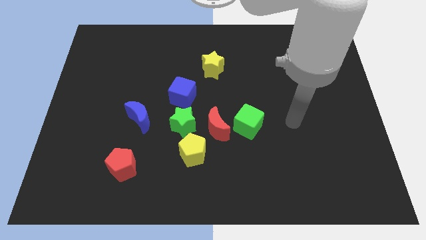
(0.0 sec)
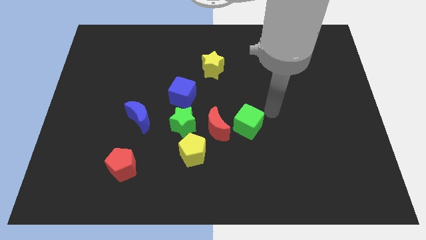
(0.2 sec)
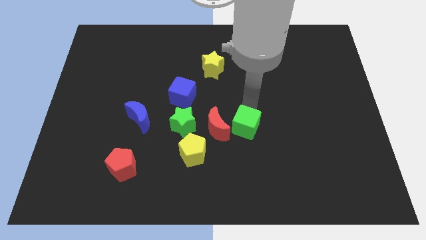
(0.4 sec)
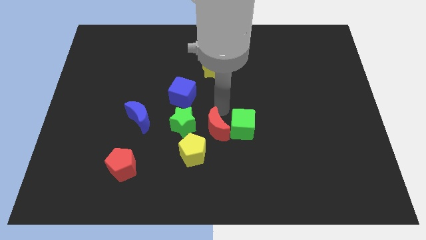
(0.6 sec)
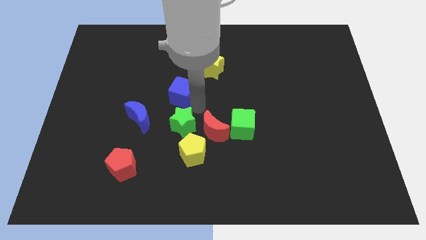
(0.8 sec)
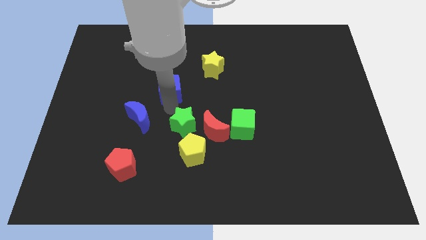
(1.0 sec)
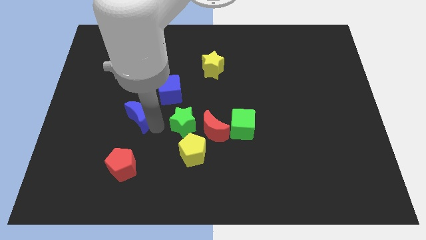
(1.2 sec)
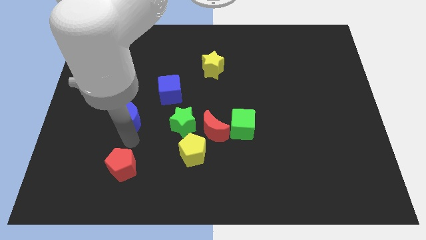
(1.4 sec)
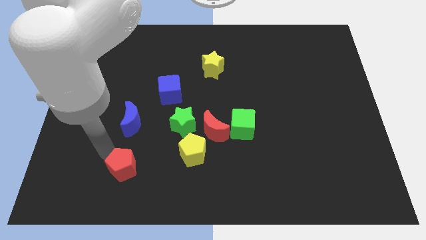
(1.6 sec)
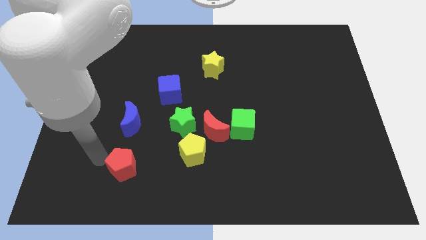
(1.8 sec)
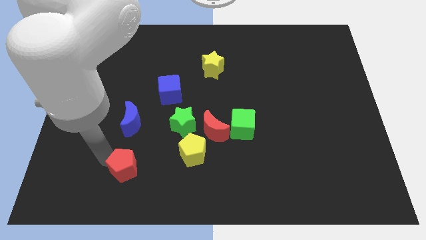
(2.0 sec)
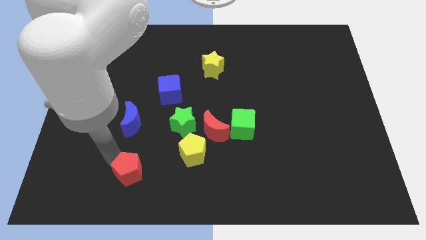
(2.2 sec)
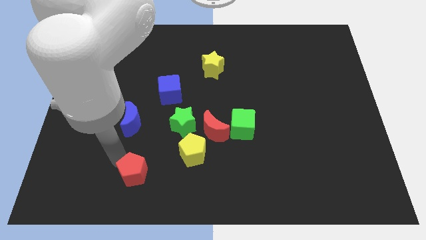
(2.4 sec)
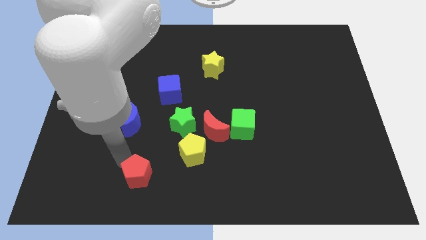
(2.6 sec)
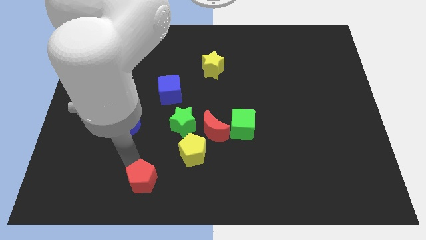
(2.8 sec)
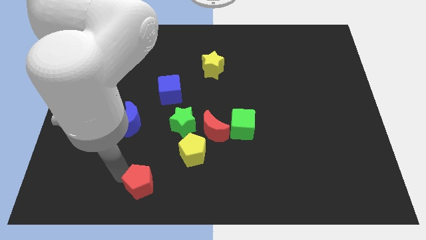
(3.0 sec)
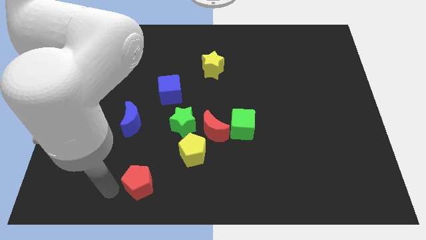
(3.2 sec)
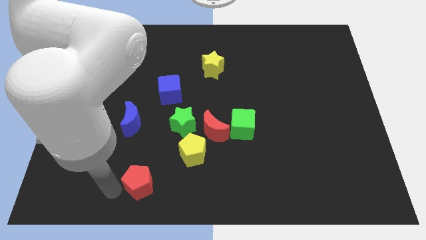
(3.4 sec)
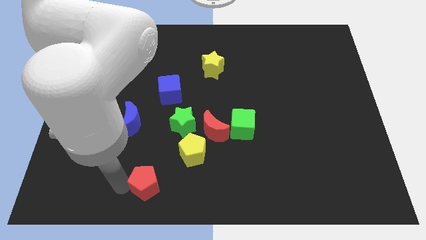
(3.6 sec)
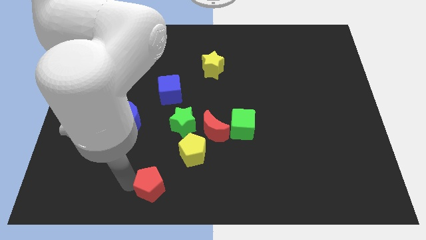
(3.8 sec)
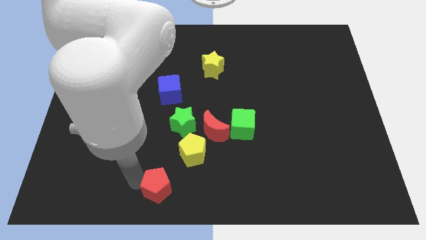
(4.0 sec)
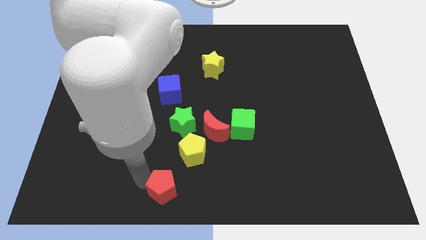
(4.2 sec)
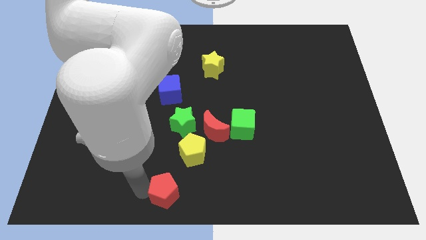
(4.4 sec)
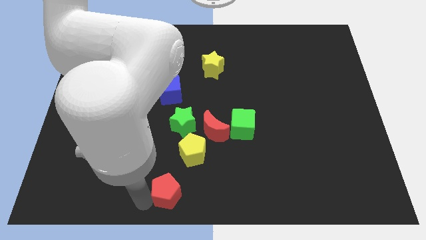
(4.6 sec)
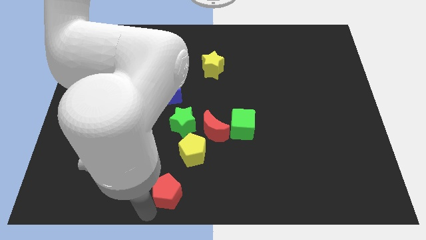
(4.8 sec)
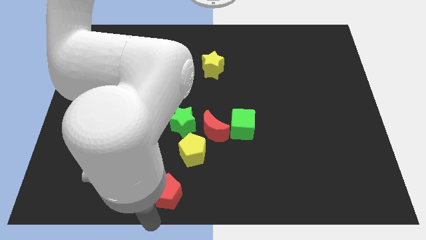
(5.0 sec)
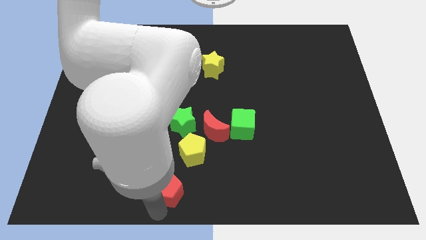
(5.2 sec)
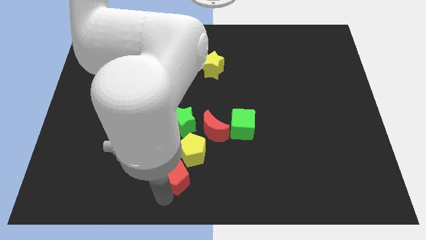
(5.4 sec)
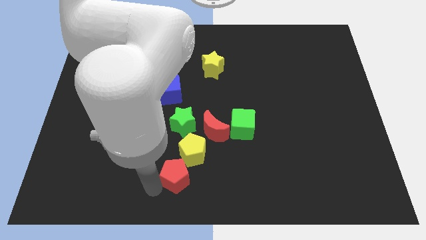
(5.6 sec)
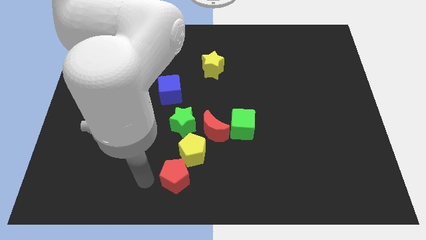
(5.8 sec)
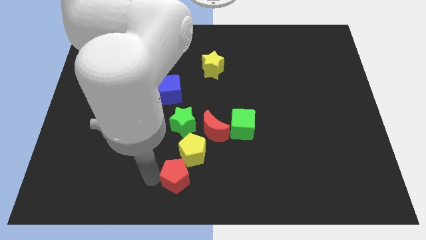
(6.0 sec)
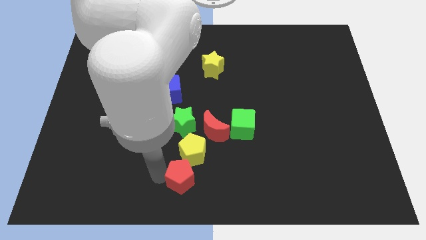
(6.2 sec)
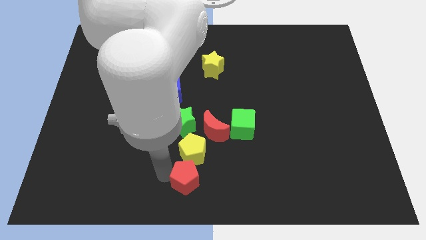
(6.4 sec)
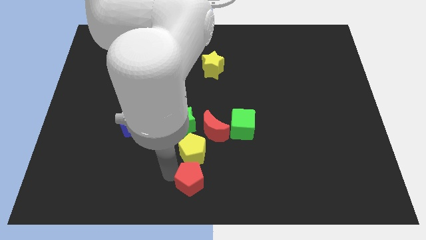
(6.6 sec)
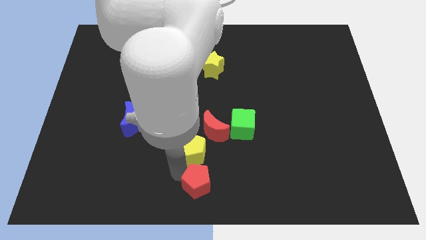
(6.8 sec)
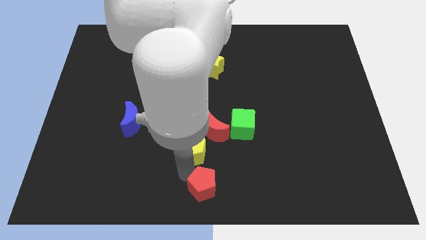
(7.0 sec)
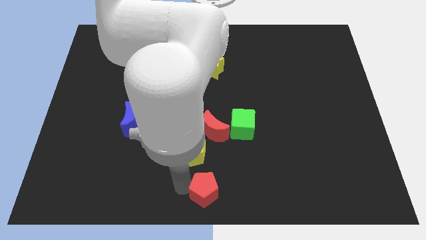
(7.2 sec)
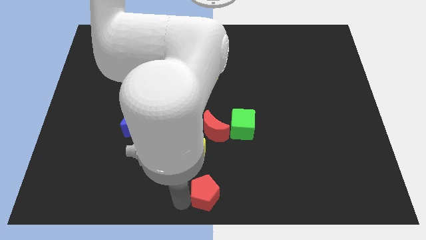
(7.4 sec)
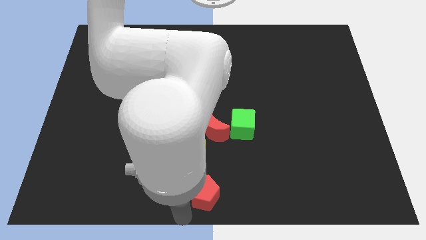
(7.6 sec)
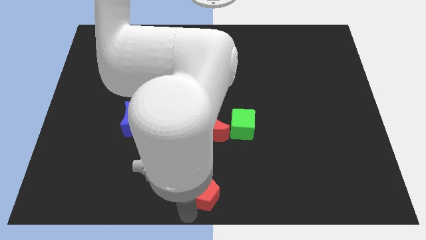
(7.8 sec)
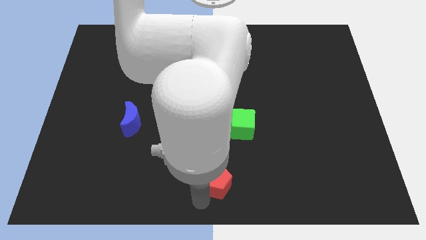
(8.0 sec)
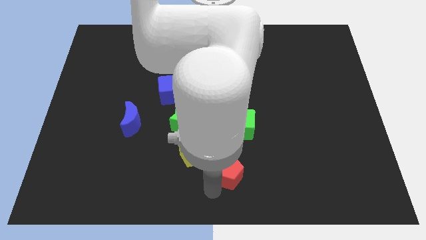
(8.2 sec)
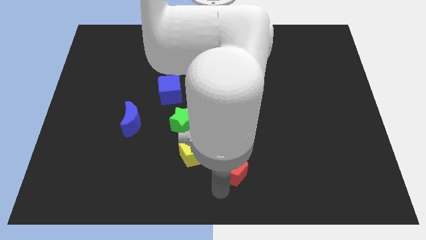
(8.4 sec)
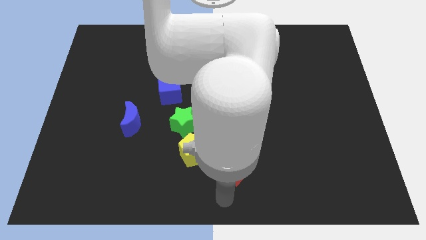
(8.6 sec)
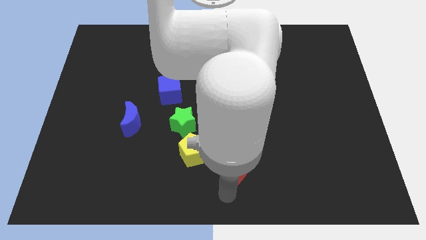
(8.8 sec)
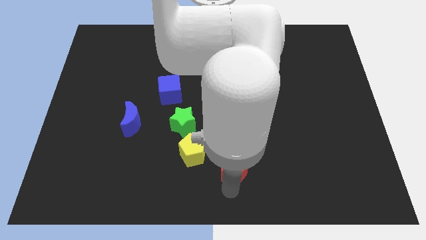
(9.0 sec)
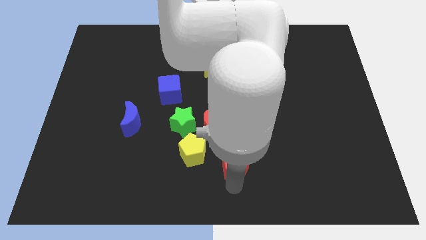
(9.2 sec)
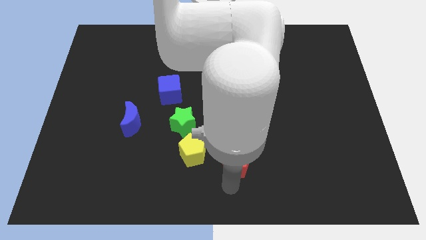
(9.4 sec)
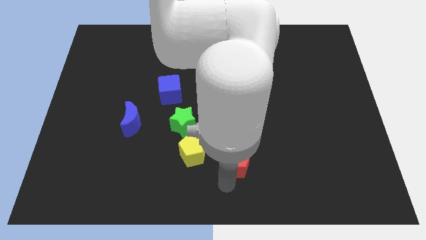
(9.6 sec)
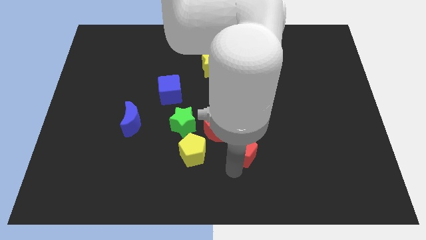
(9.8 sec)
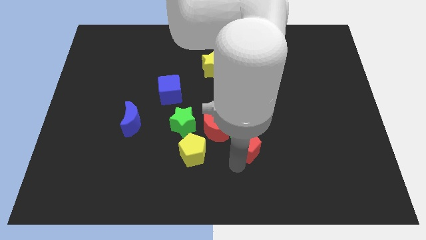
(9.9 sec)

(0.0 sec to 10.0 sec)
put the red pentagon just right of the red moon

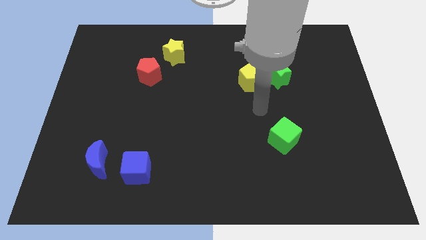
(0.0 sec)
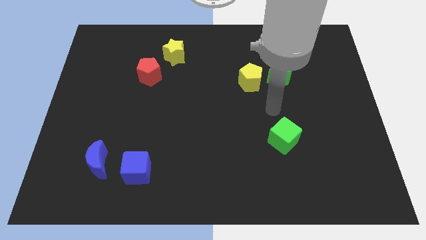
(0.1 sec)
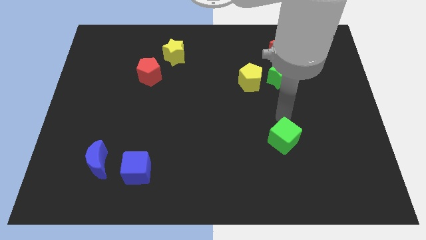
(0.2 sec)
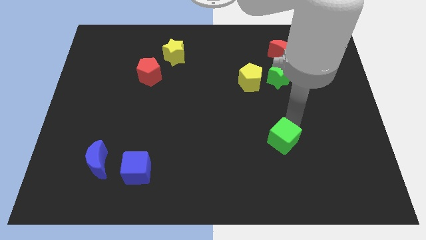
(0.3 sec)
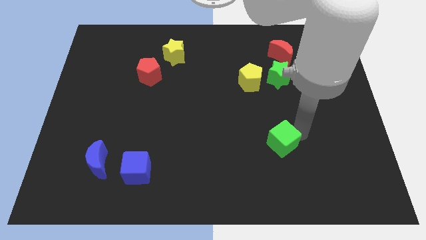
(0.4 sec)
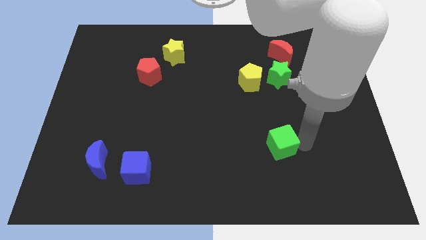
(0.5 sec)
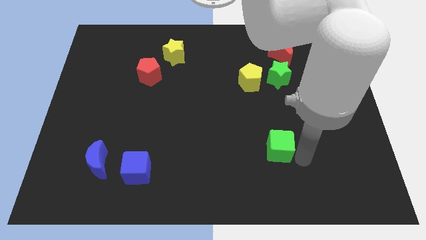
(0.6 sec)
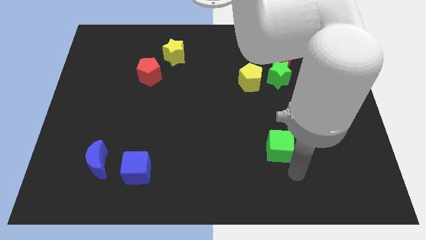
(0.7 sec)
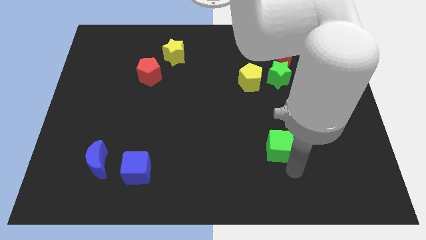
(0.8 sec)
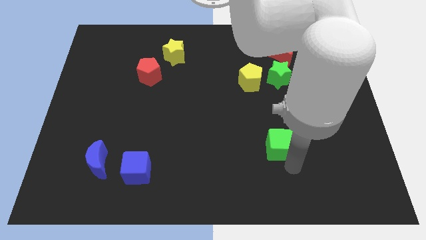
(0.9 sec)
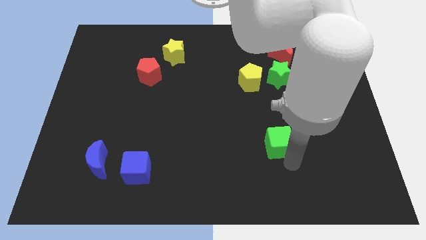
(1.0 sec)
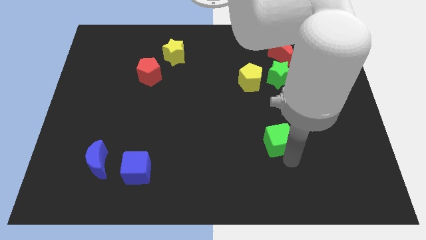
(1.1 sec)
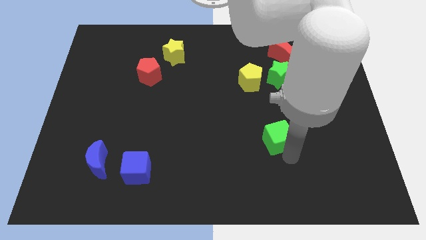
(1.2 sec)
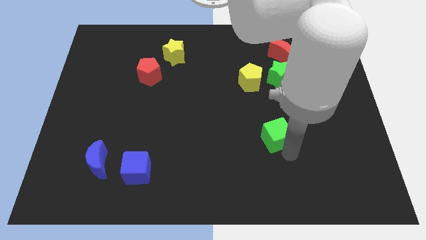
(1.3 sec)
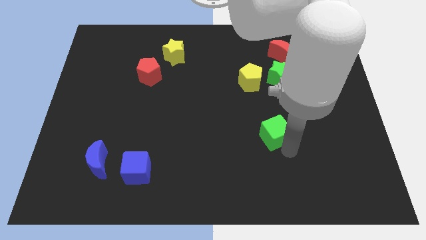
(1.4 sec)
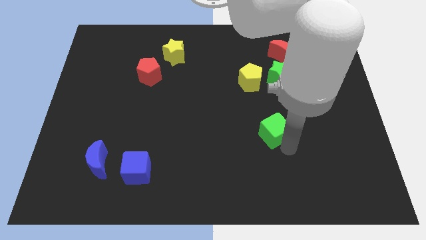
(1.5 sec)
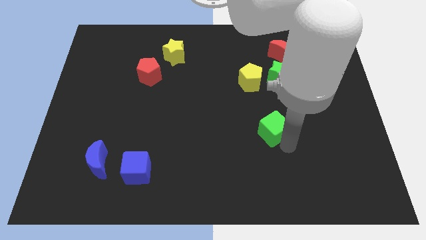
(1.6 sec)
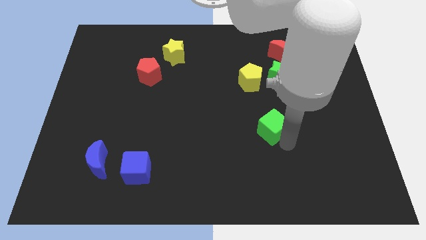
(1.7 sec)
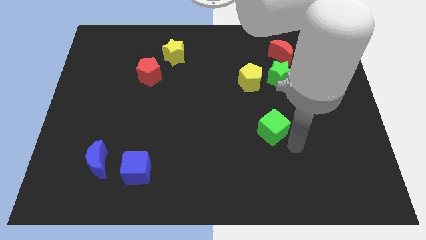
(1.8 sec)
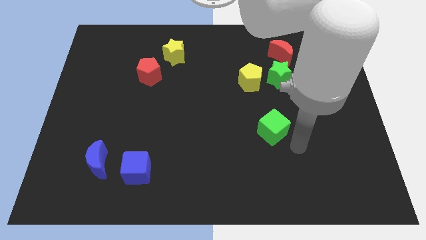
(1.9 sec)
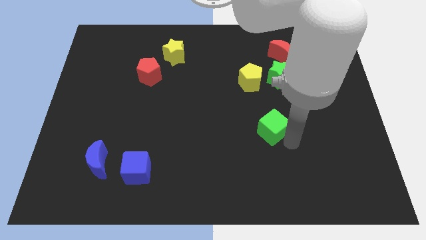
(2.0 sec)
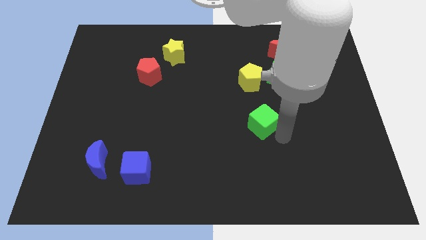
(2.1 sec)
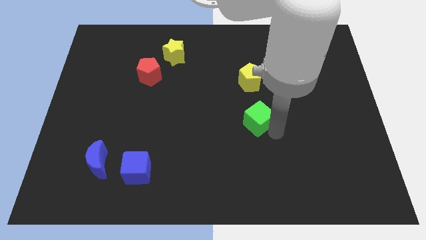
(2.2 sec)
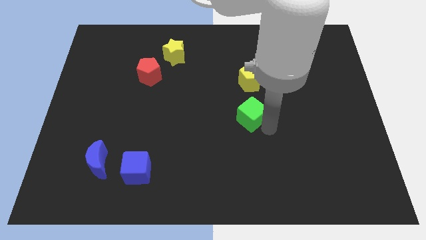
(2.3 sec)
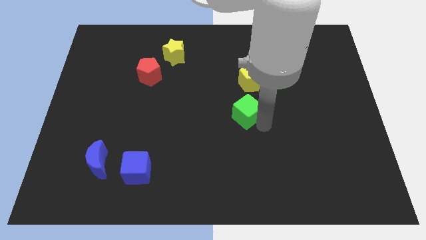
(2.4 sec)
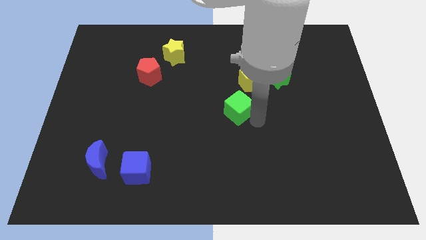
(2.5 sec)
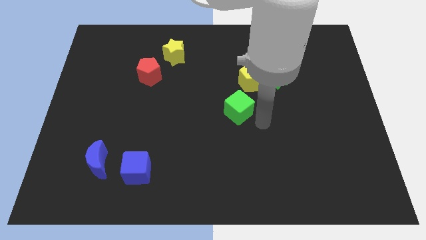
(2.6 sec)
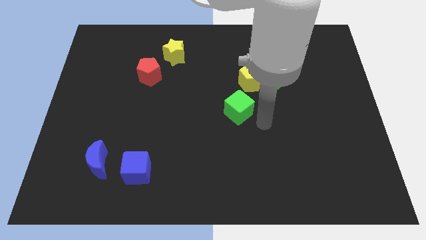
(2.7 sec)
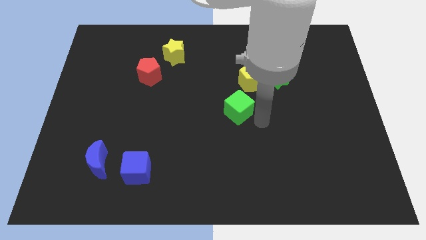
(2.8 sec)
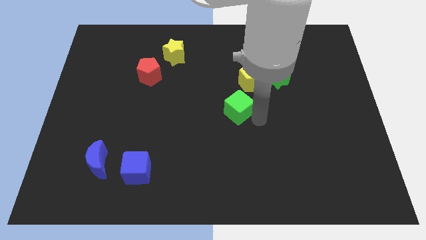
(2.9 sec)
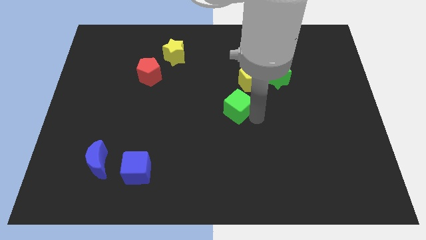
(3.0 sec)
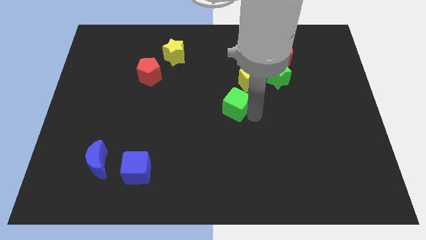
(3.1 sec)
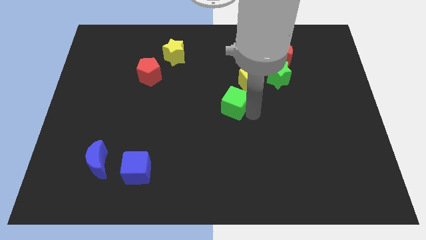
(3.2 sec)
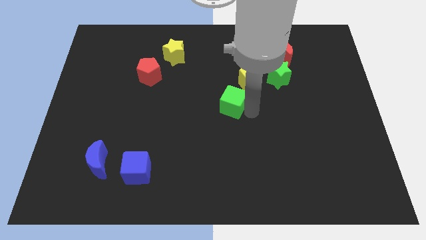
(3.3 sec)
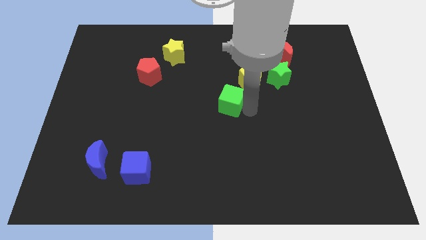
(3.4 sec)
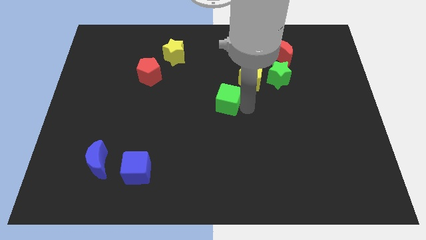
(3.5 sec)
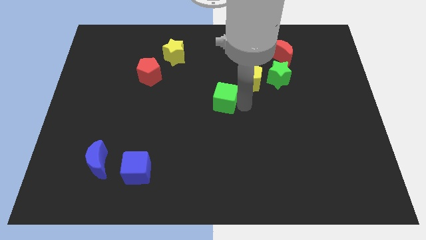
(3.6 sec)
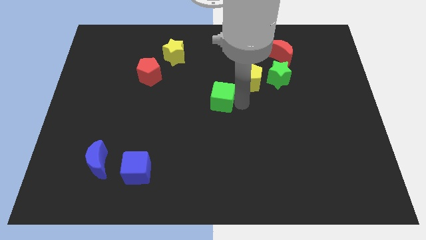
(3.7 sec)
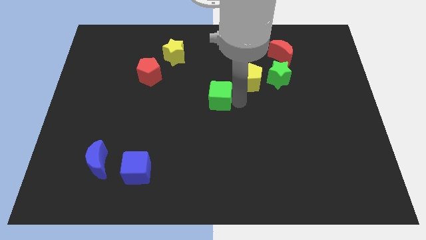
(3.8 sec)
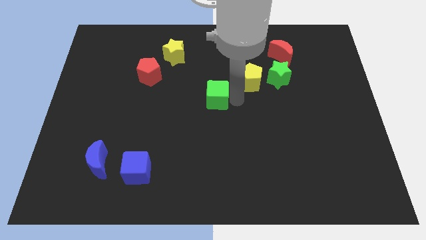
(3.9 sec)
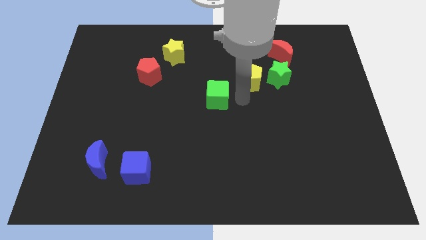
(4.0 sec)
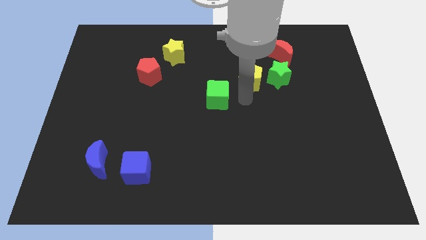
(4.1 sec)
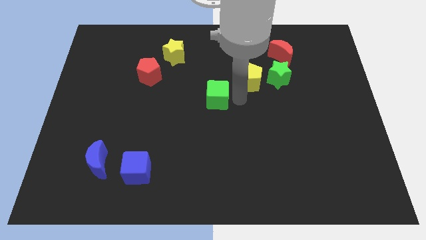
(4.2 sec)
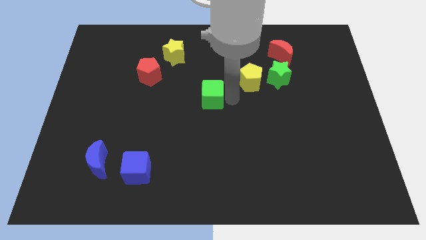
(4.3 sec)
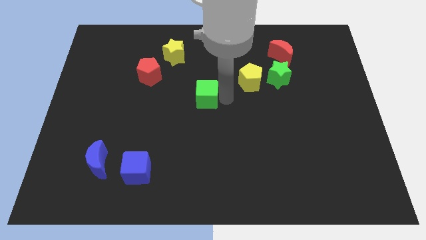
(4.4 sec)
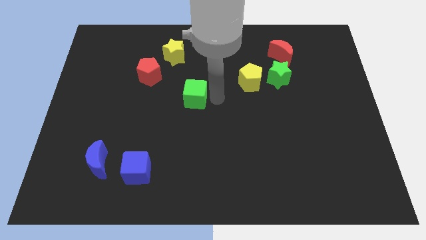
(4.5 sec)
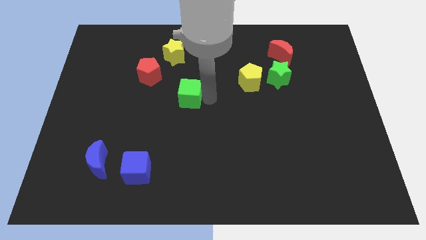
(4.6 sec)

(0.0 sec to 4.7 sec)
move the green cube to the bottom right side of the red pentagon
